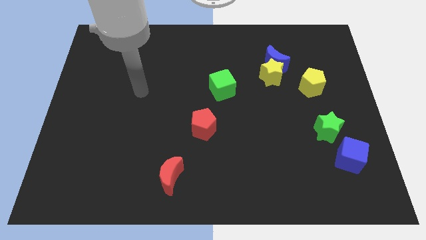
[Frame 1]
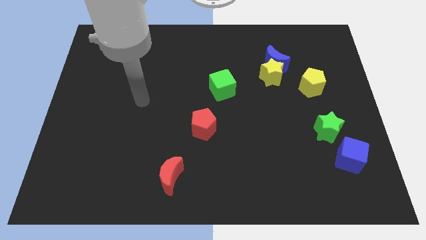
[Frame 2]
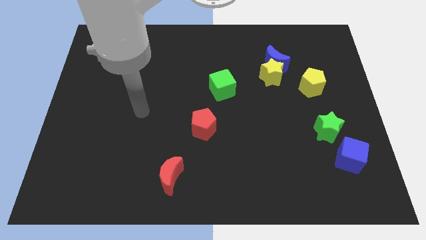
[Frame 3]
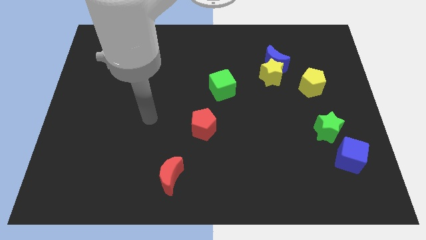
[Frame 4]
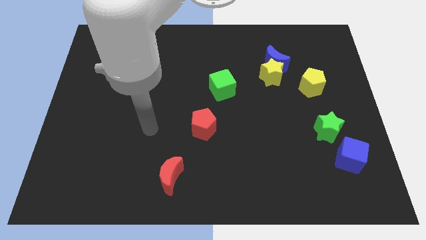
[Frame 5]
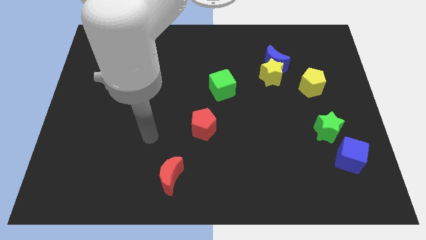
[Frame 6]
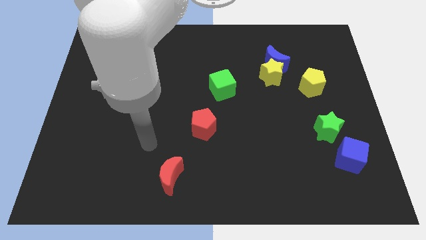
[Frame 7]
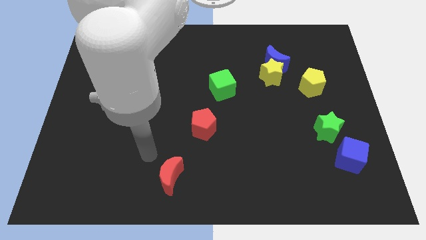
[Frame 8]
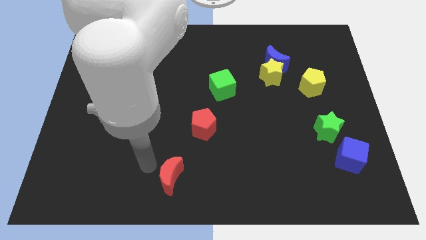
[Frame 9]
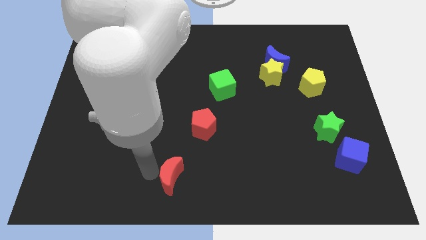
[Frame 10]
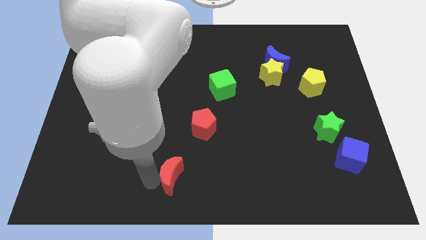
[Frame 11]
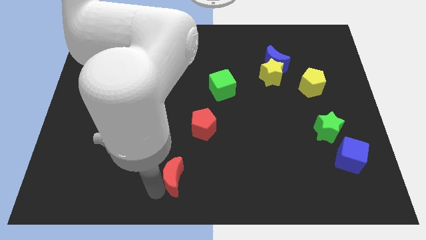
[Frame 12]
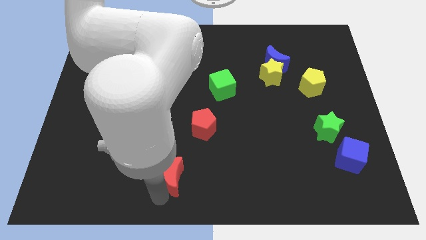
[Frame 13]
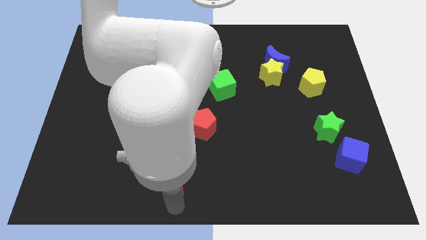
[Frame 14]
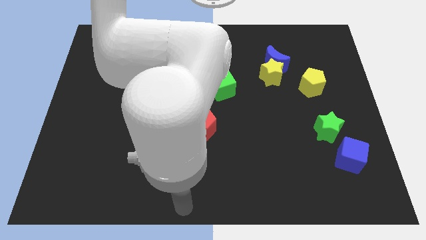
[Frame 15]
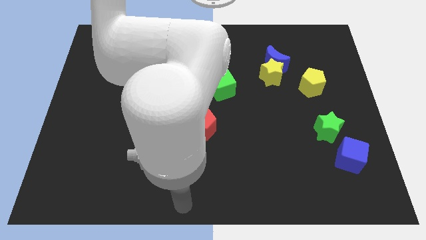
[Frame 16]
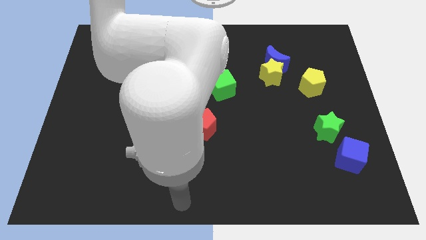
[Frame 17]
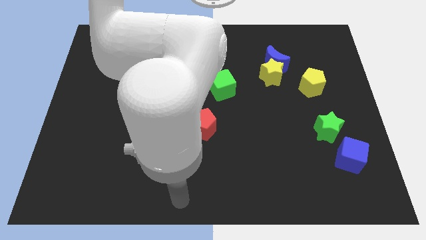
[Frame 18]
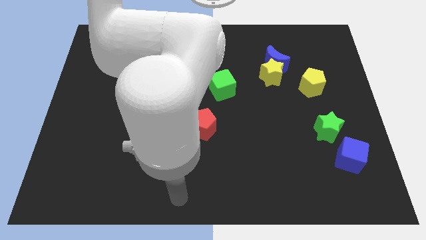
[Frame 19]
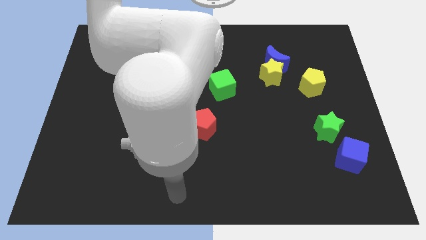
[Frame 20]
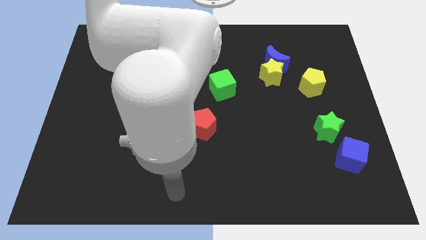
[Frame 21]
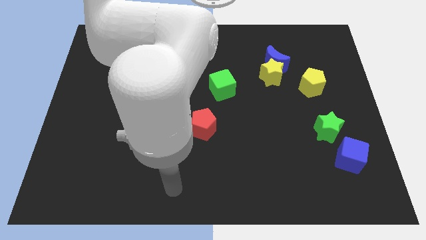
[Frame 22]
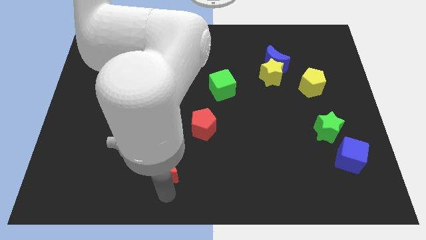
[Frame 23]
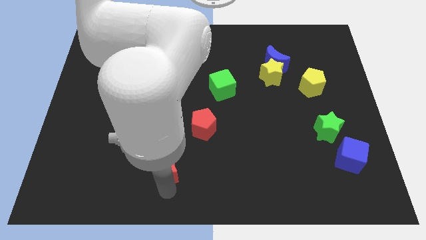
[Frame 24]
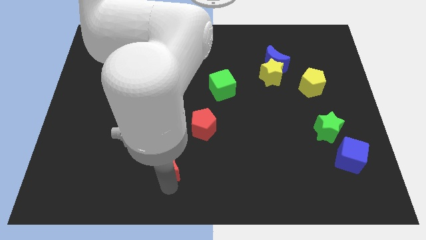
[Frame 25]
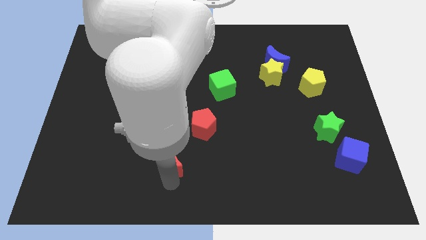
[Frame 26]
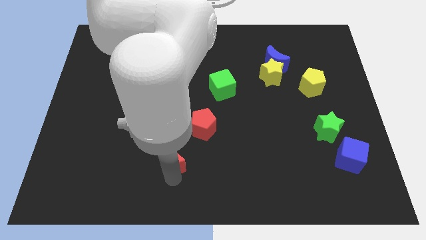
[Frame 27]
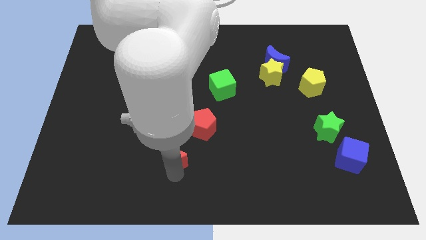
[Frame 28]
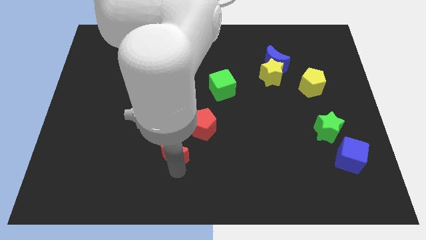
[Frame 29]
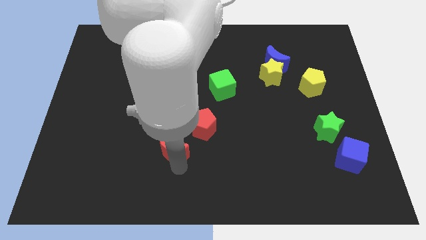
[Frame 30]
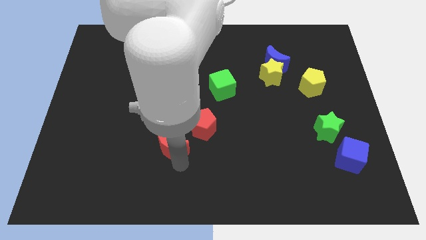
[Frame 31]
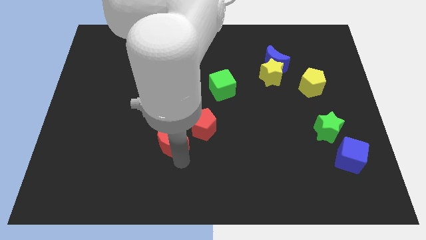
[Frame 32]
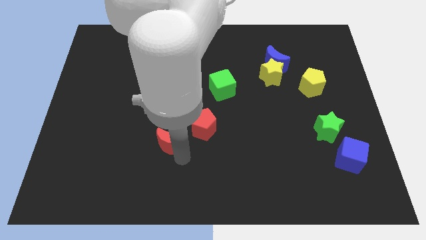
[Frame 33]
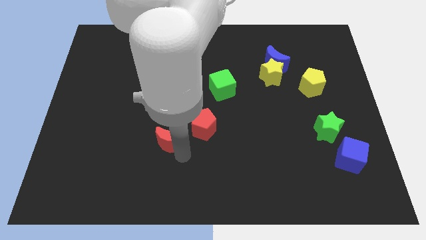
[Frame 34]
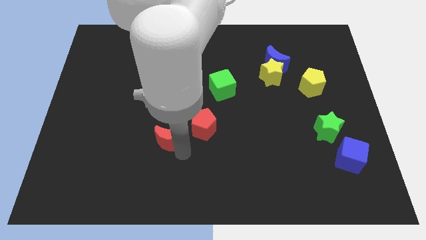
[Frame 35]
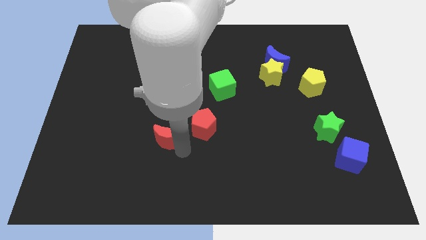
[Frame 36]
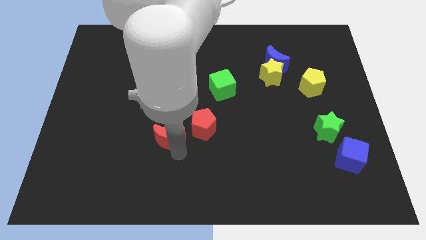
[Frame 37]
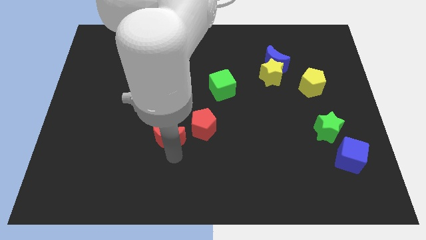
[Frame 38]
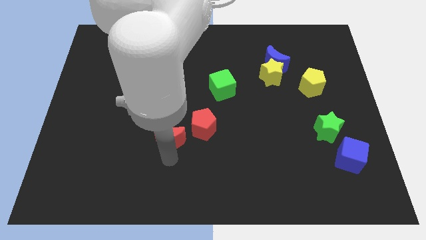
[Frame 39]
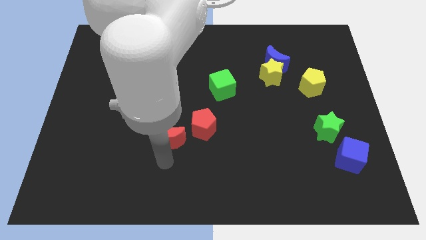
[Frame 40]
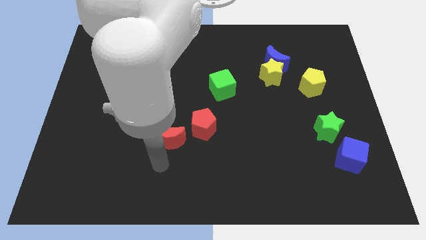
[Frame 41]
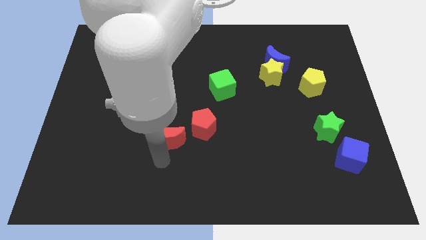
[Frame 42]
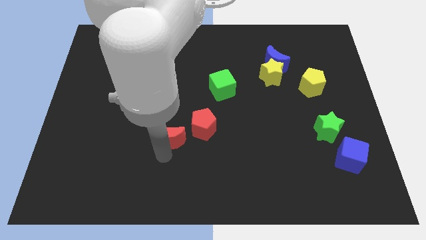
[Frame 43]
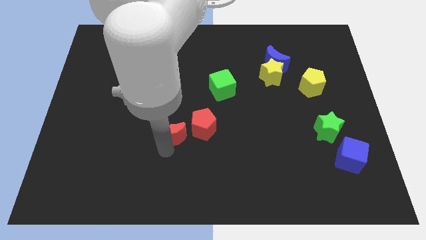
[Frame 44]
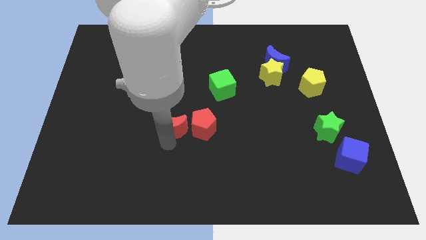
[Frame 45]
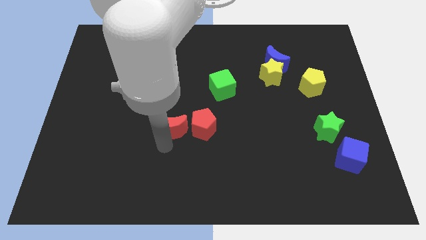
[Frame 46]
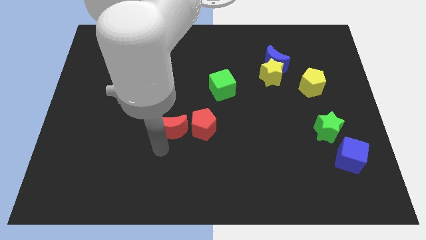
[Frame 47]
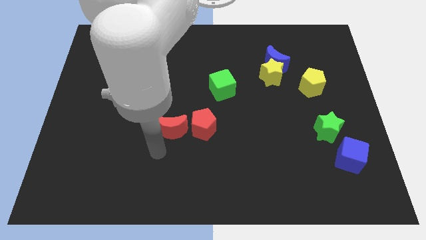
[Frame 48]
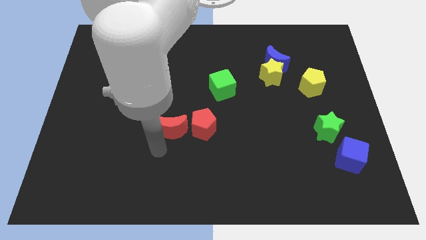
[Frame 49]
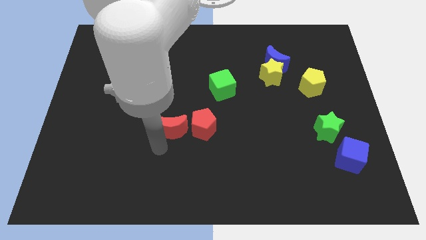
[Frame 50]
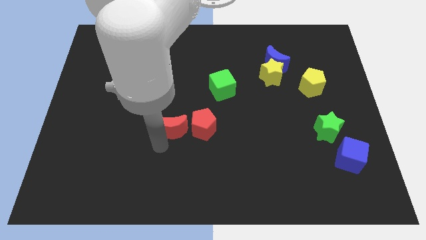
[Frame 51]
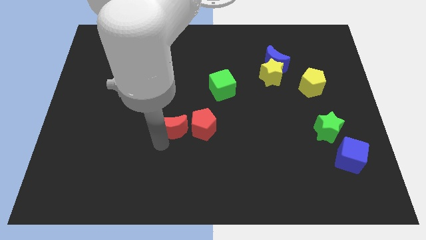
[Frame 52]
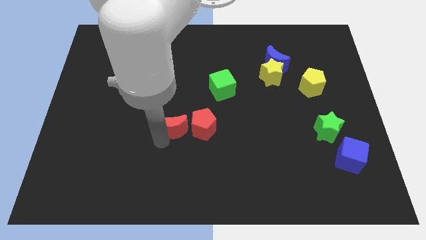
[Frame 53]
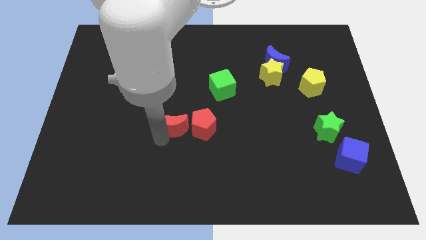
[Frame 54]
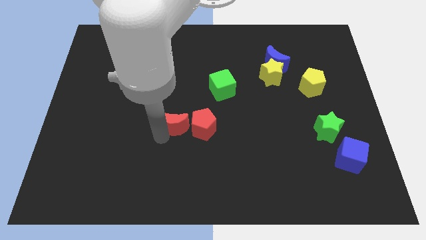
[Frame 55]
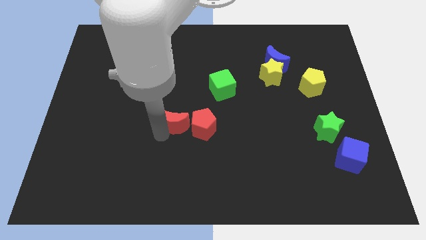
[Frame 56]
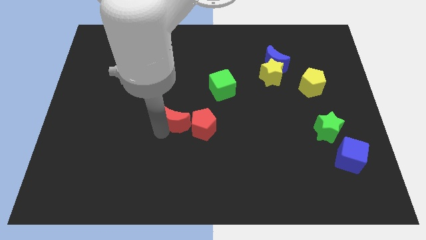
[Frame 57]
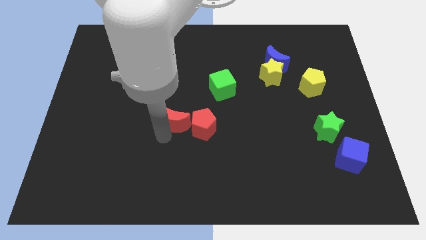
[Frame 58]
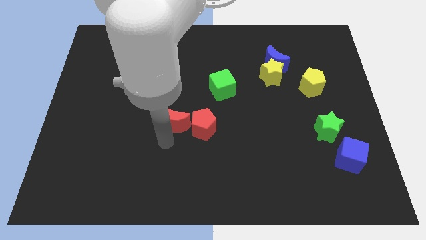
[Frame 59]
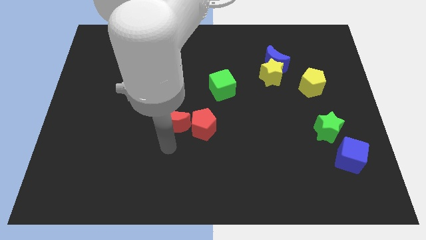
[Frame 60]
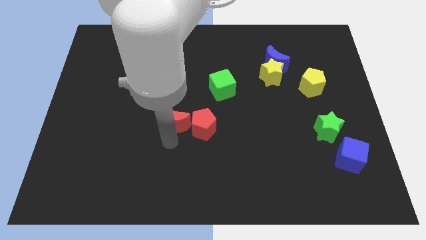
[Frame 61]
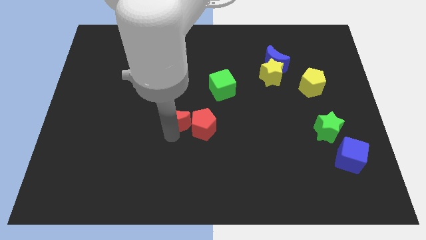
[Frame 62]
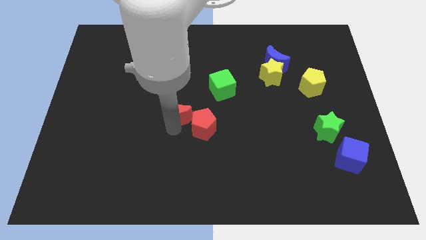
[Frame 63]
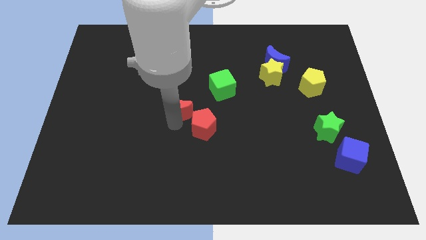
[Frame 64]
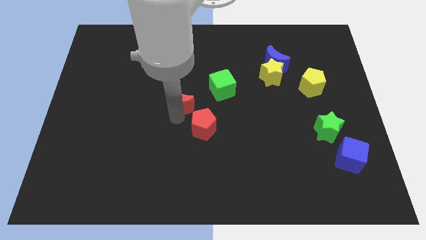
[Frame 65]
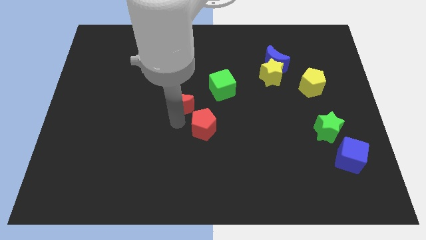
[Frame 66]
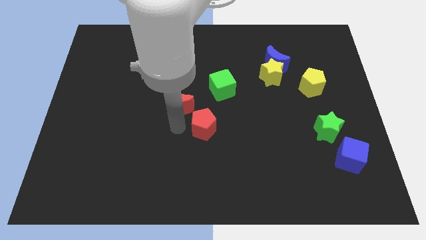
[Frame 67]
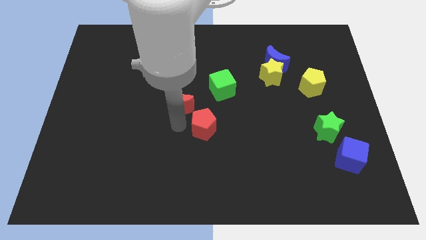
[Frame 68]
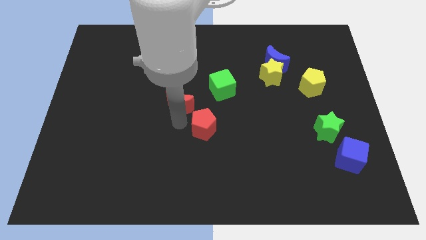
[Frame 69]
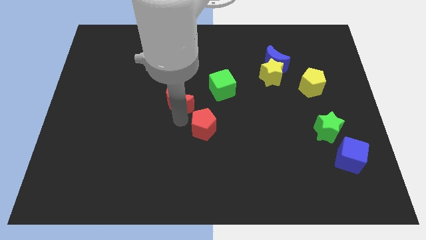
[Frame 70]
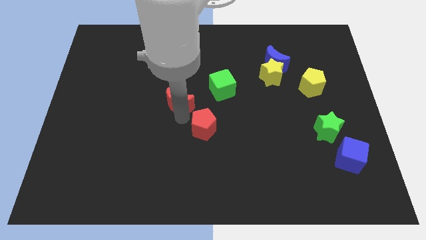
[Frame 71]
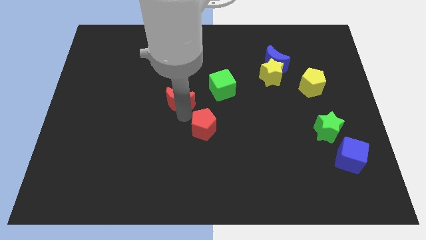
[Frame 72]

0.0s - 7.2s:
move the red moon left of the green cube

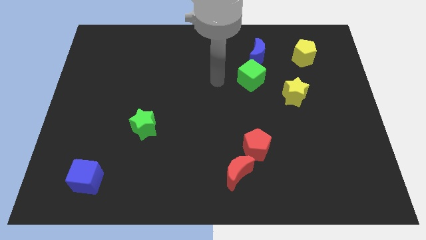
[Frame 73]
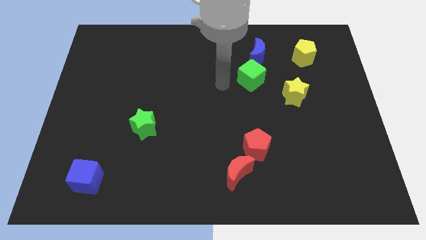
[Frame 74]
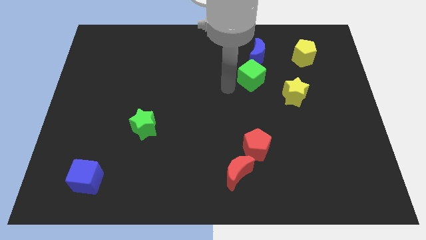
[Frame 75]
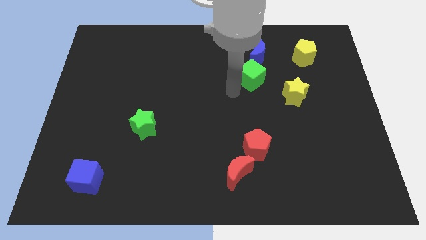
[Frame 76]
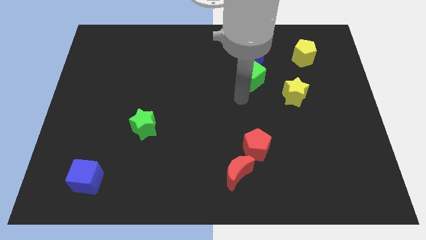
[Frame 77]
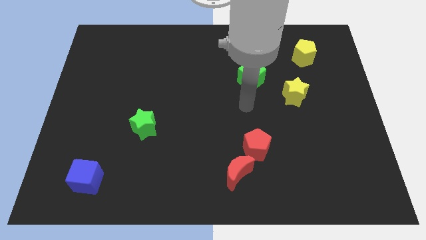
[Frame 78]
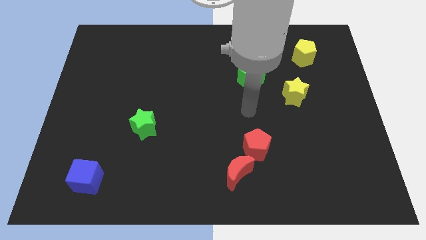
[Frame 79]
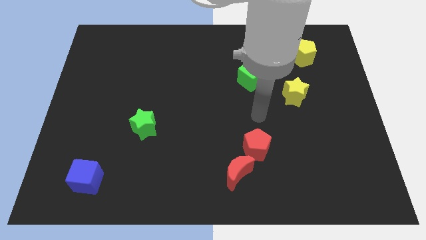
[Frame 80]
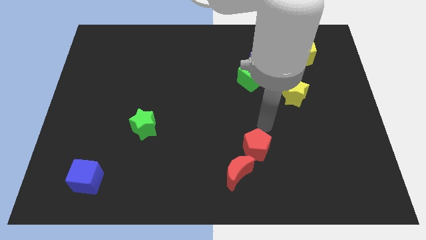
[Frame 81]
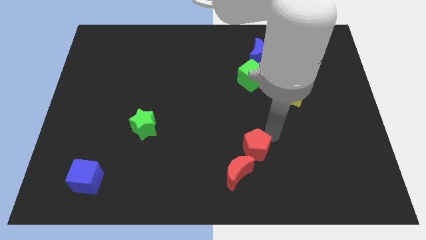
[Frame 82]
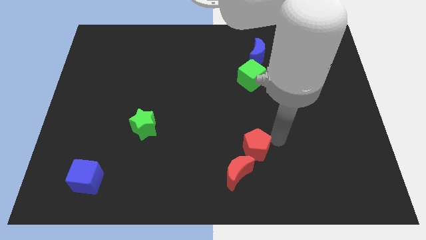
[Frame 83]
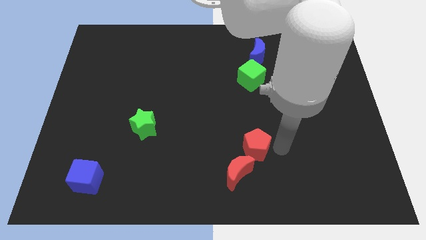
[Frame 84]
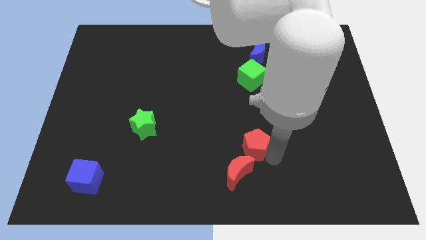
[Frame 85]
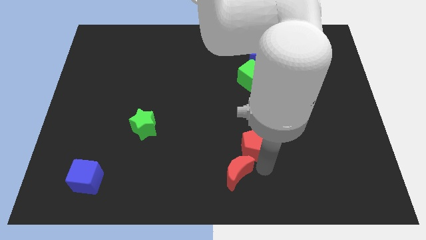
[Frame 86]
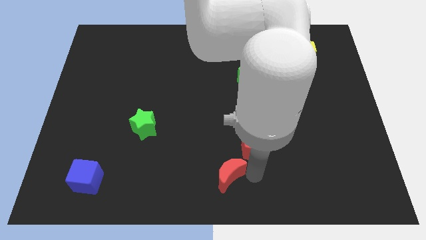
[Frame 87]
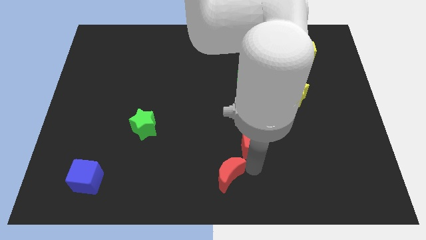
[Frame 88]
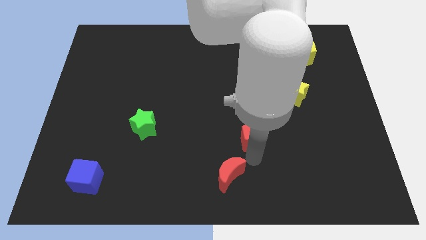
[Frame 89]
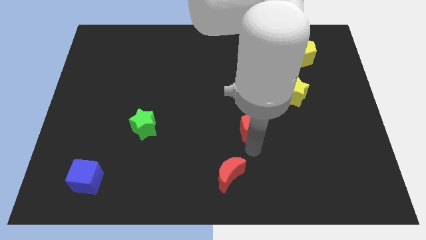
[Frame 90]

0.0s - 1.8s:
slide the red pentagon below the green cube
